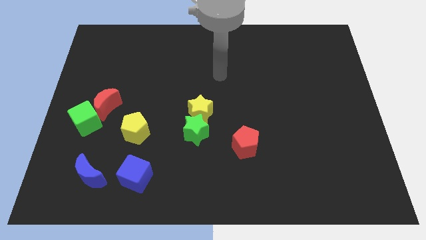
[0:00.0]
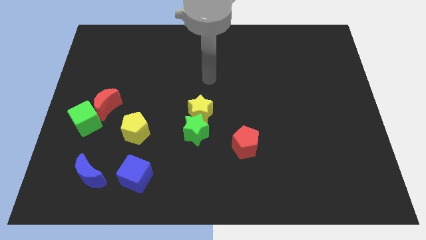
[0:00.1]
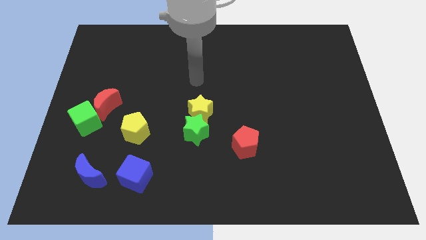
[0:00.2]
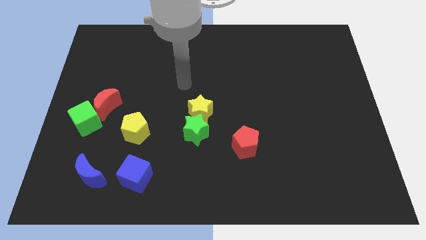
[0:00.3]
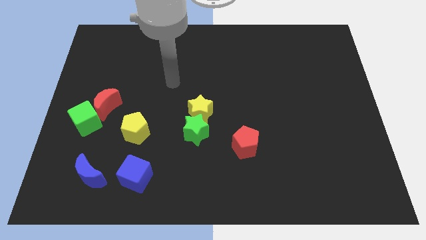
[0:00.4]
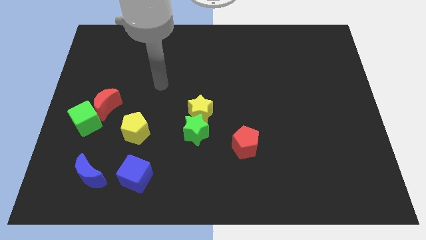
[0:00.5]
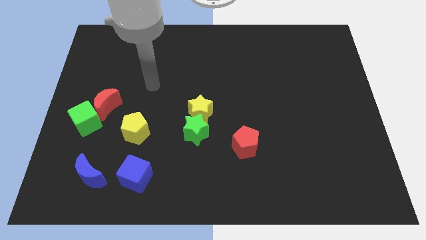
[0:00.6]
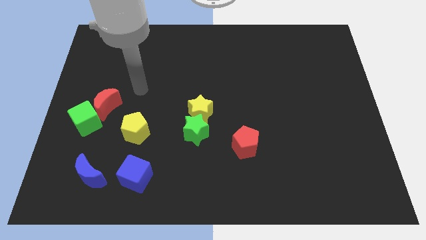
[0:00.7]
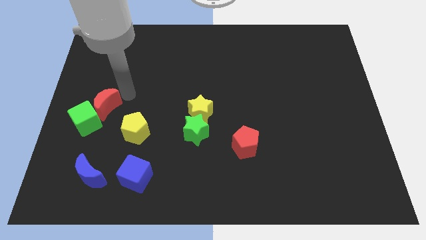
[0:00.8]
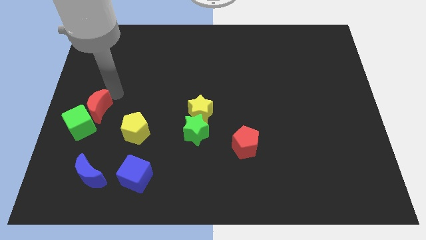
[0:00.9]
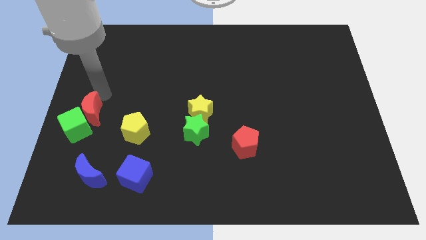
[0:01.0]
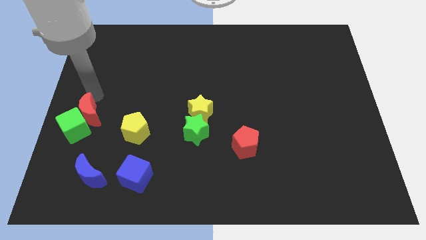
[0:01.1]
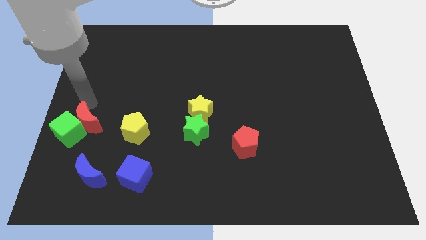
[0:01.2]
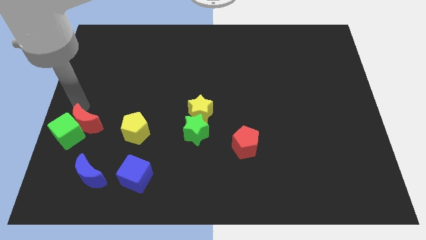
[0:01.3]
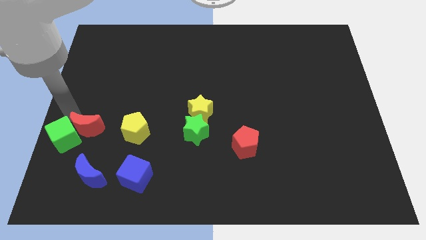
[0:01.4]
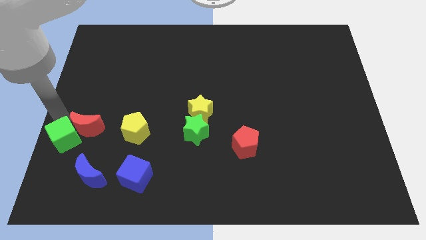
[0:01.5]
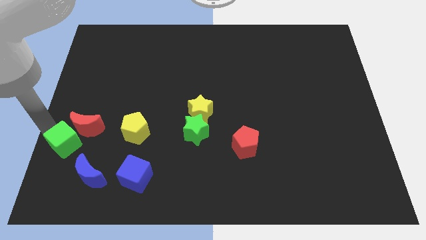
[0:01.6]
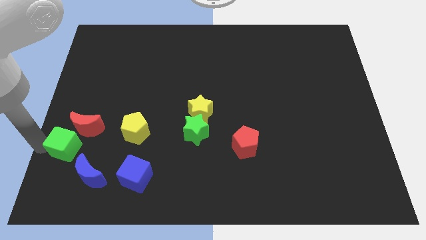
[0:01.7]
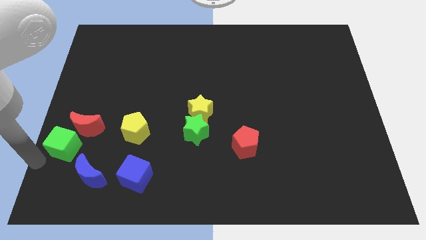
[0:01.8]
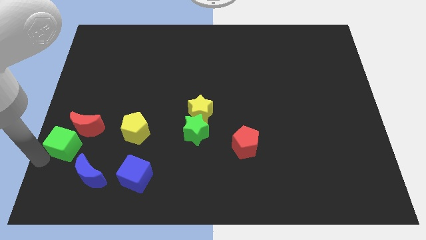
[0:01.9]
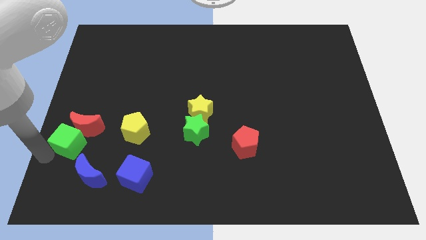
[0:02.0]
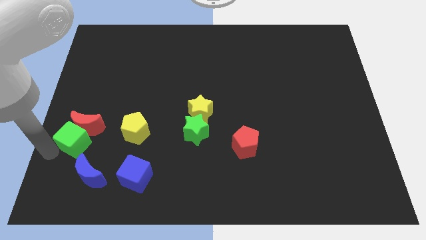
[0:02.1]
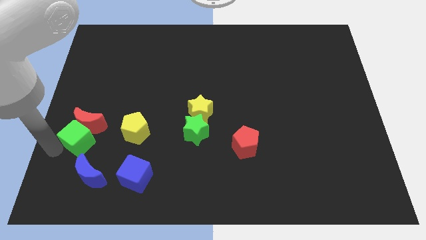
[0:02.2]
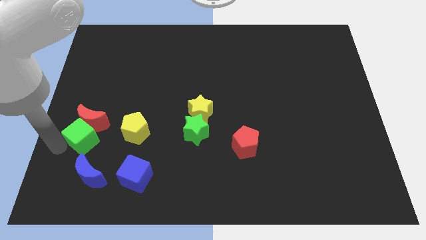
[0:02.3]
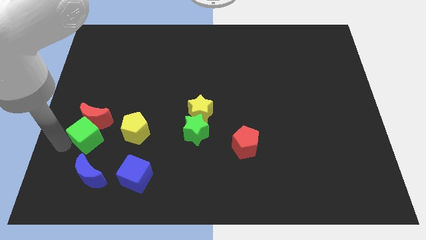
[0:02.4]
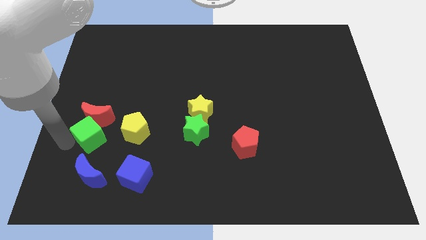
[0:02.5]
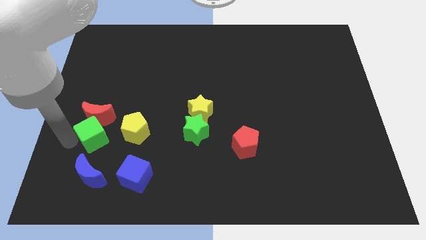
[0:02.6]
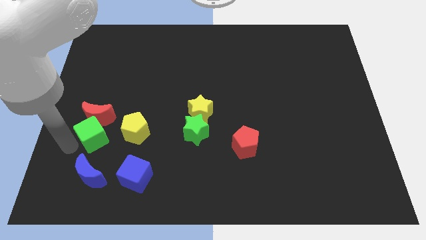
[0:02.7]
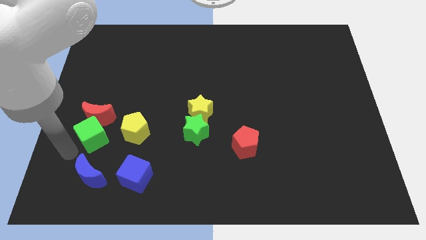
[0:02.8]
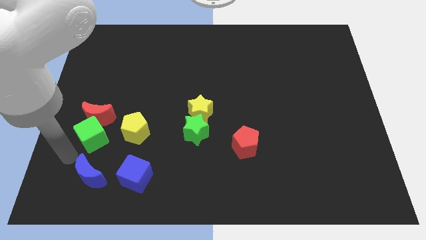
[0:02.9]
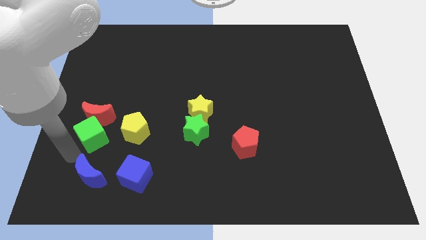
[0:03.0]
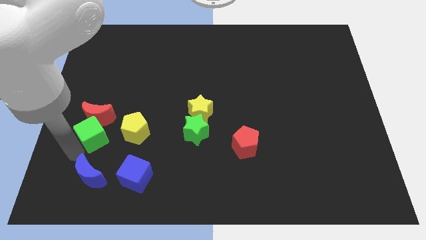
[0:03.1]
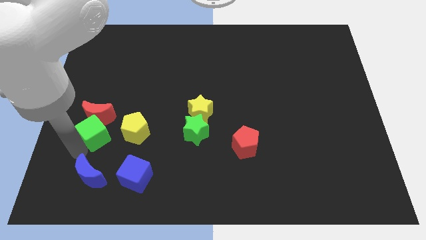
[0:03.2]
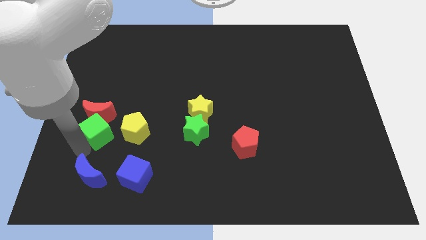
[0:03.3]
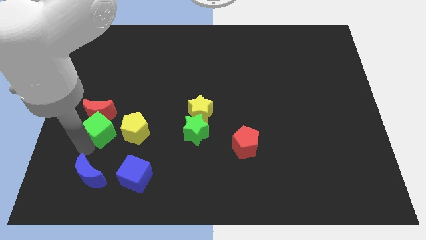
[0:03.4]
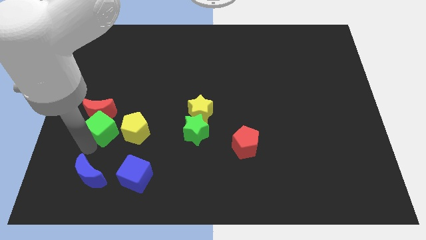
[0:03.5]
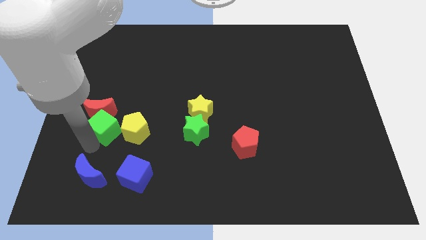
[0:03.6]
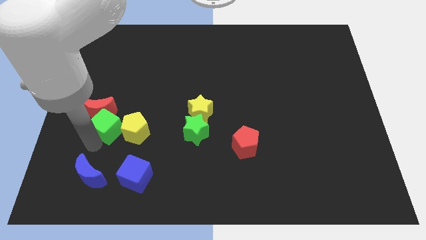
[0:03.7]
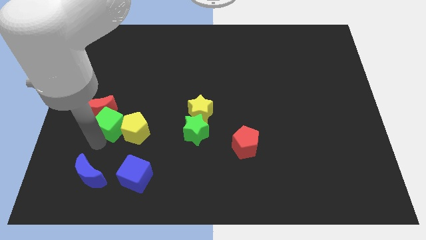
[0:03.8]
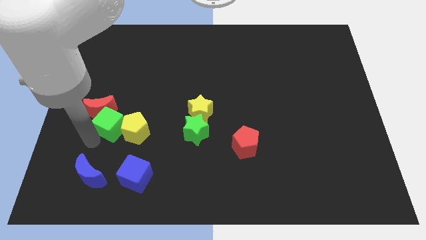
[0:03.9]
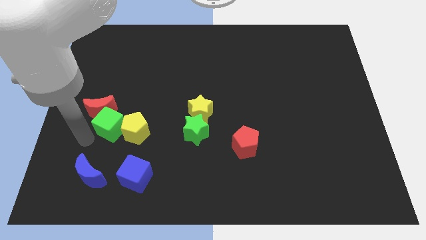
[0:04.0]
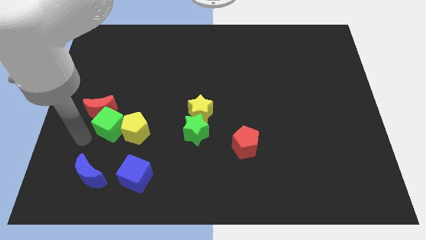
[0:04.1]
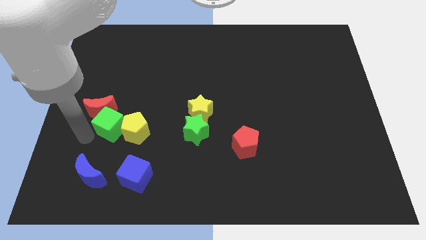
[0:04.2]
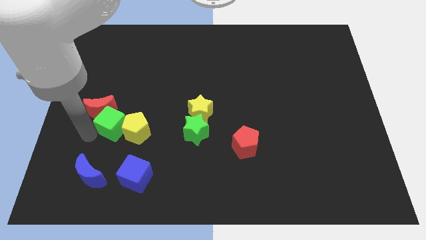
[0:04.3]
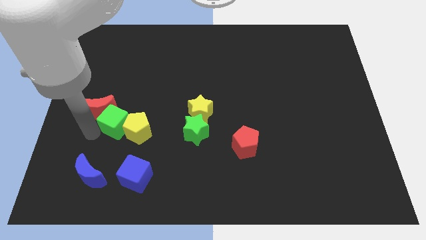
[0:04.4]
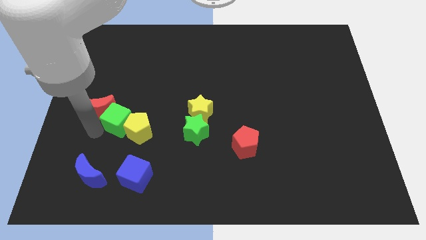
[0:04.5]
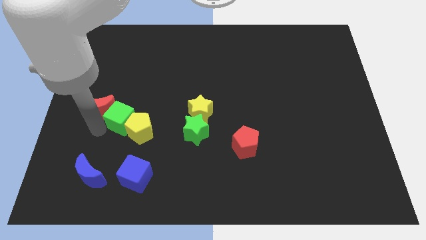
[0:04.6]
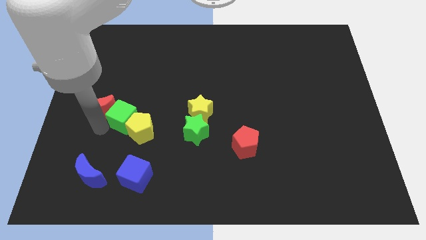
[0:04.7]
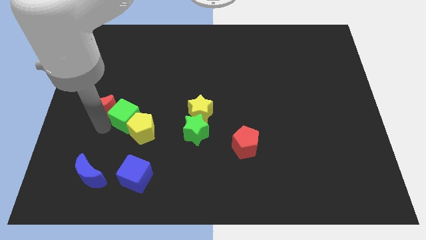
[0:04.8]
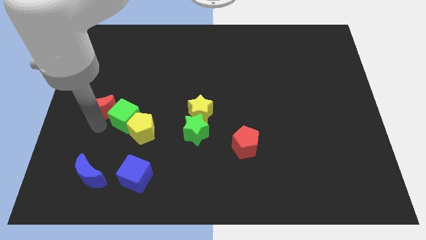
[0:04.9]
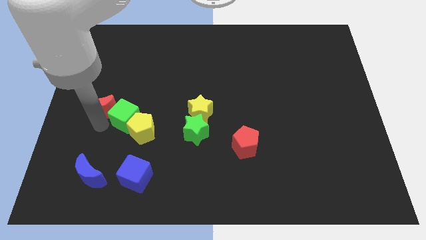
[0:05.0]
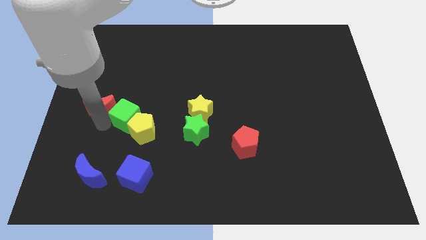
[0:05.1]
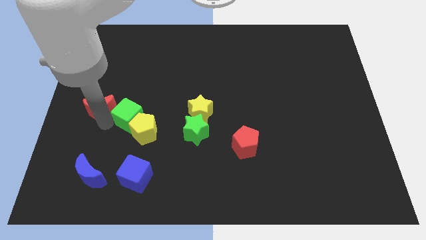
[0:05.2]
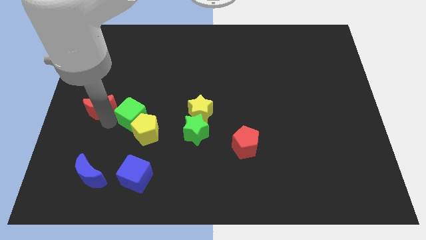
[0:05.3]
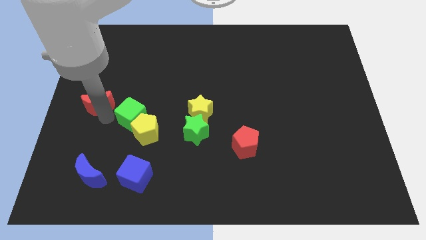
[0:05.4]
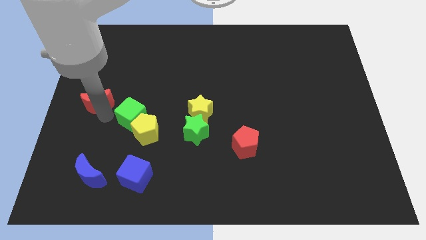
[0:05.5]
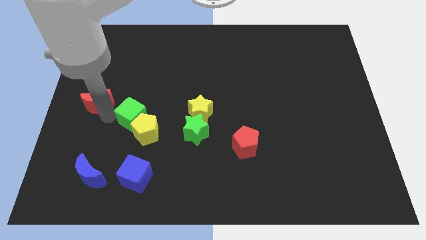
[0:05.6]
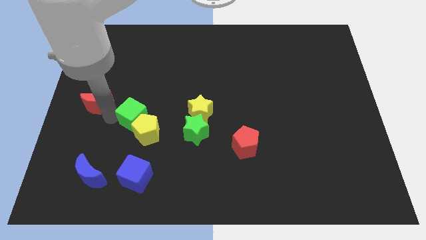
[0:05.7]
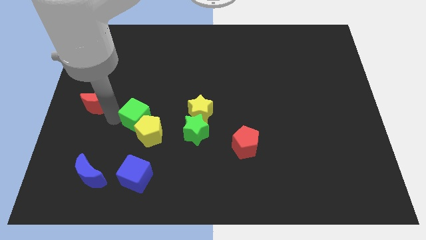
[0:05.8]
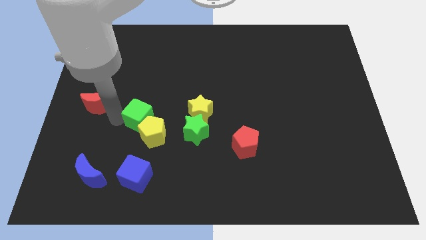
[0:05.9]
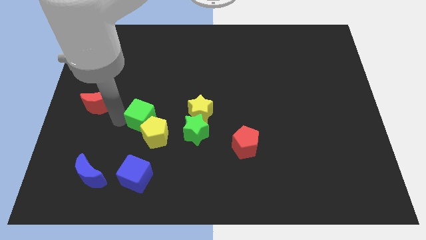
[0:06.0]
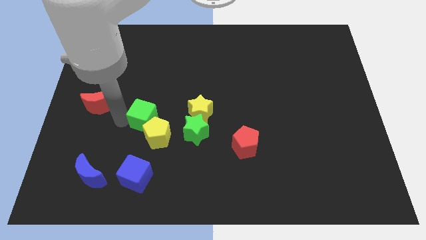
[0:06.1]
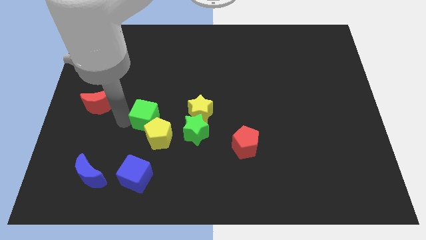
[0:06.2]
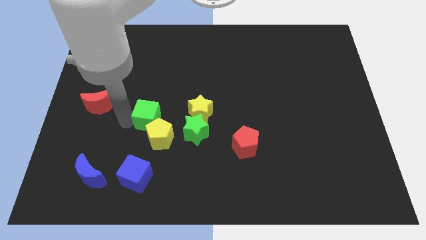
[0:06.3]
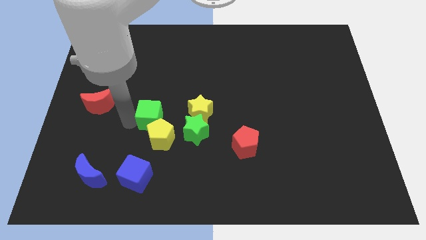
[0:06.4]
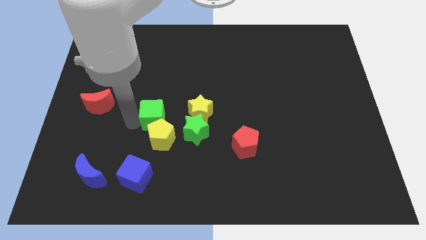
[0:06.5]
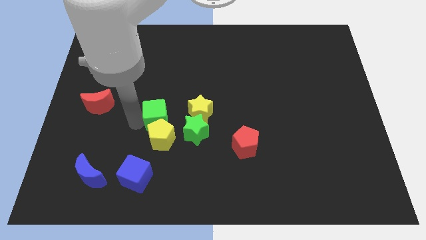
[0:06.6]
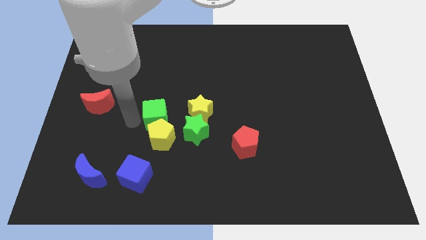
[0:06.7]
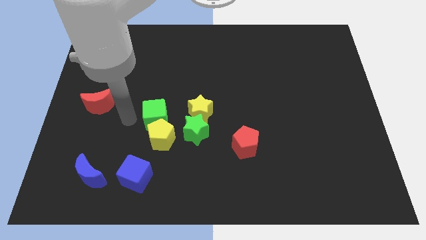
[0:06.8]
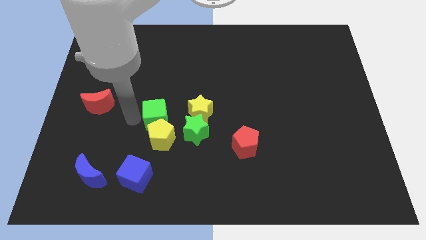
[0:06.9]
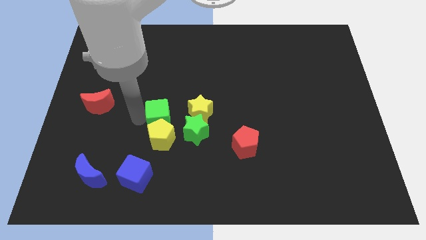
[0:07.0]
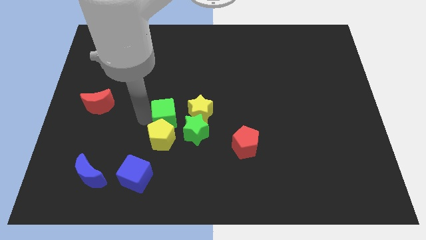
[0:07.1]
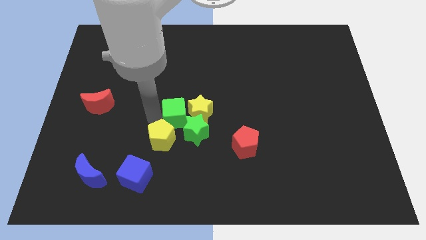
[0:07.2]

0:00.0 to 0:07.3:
put the green cube to the yellow star

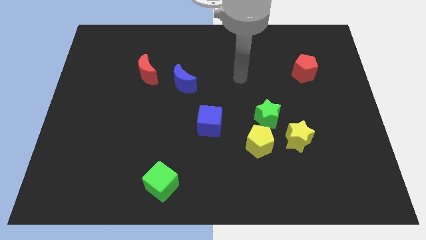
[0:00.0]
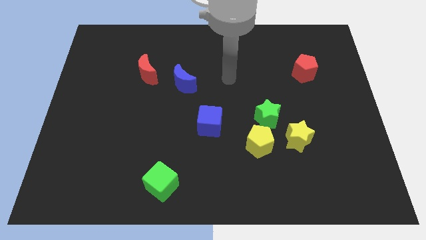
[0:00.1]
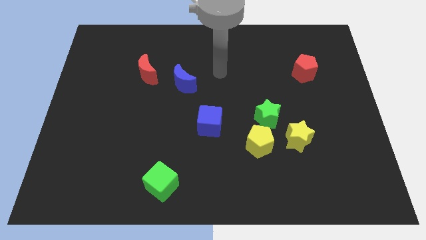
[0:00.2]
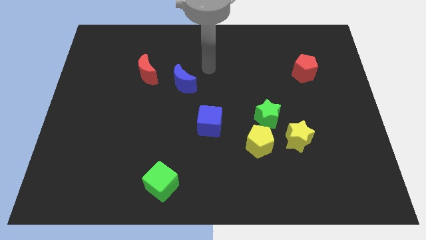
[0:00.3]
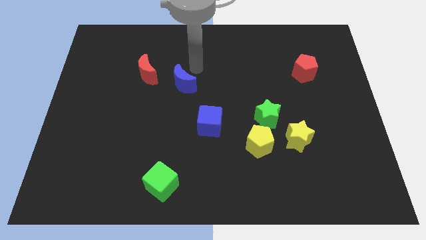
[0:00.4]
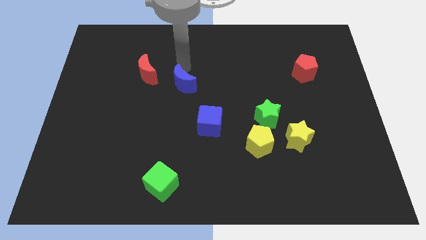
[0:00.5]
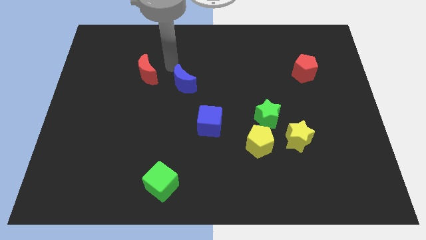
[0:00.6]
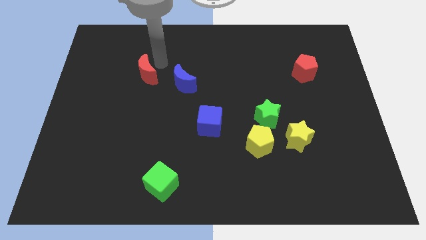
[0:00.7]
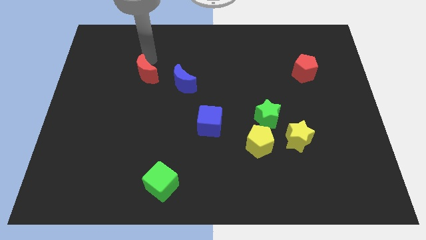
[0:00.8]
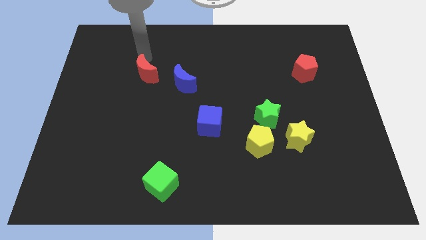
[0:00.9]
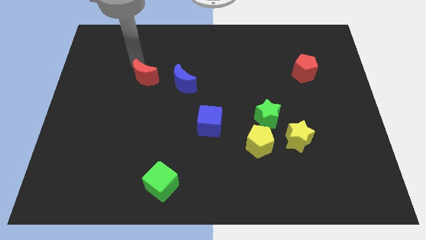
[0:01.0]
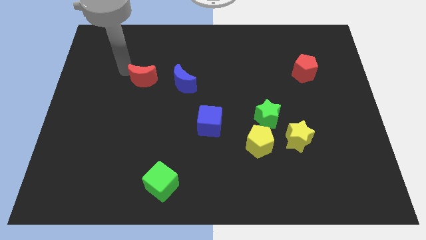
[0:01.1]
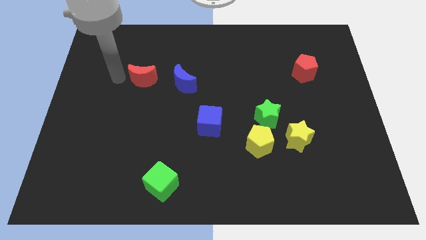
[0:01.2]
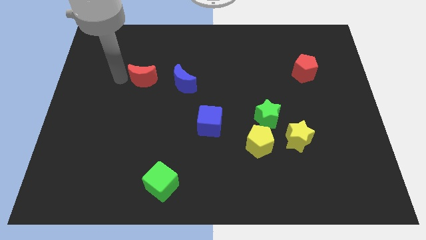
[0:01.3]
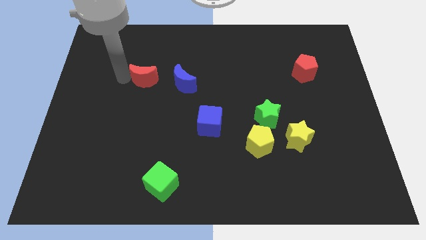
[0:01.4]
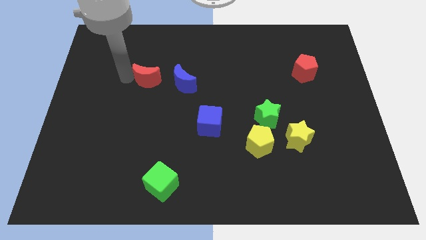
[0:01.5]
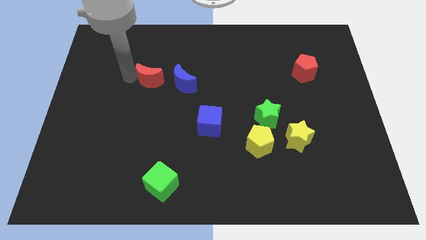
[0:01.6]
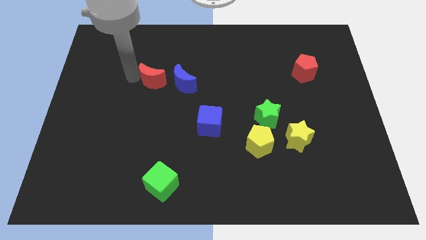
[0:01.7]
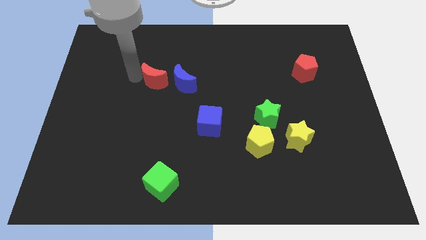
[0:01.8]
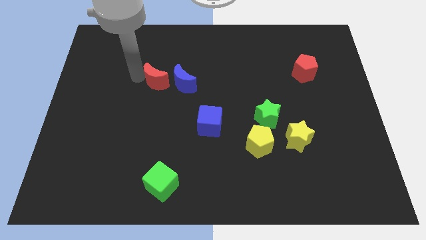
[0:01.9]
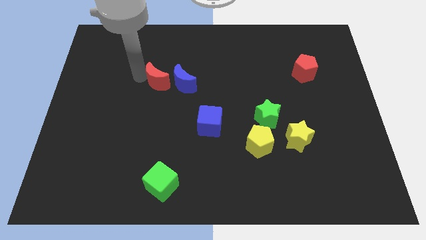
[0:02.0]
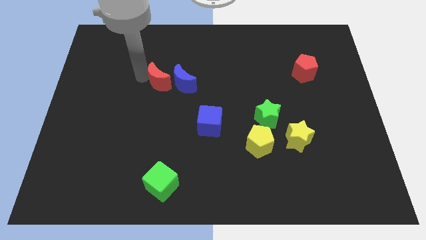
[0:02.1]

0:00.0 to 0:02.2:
slide the red moon next to the blue moon
